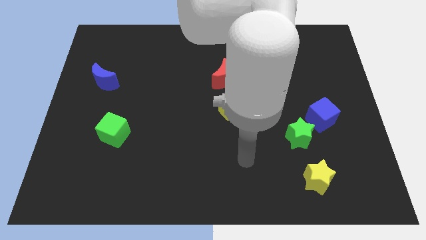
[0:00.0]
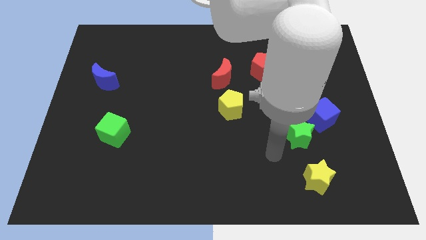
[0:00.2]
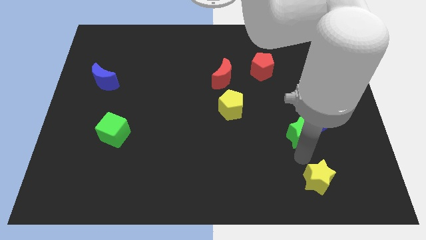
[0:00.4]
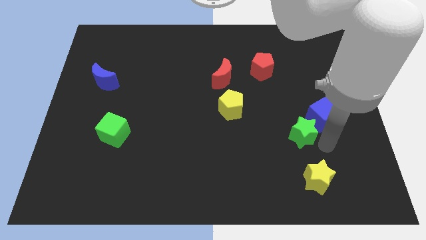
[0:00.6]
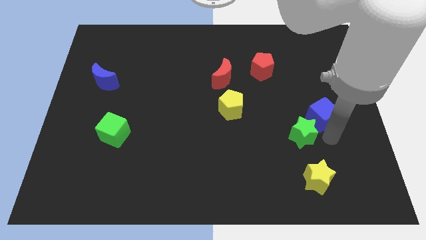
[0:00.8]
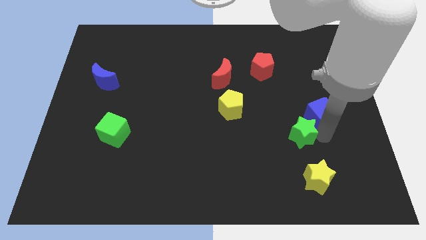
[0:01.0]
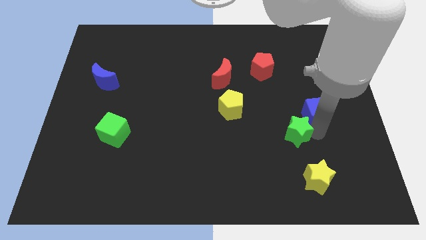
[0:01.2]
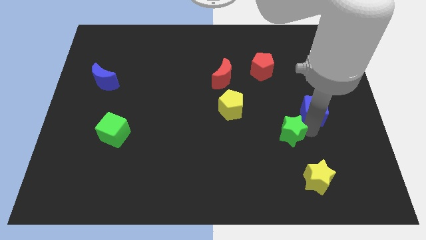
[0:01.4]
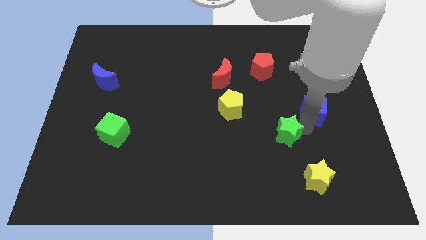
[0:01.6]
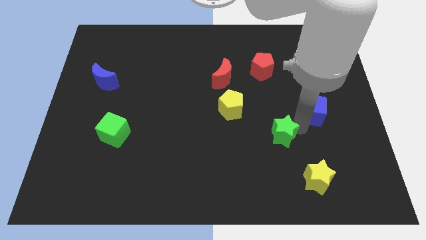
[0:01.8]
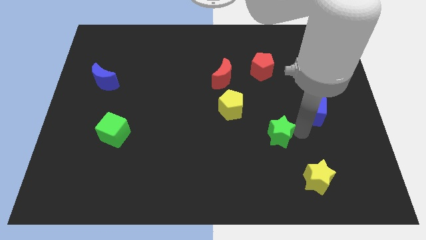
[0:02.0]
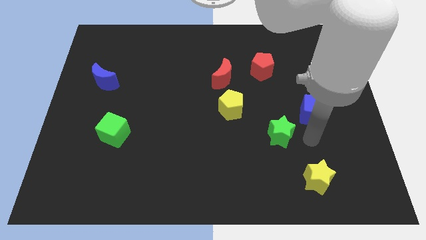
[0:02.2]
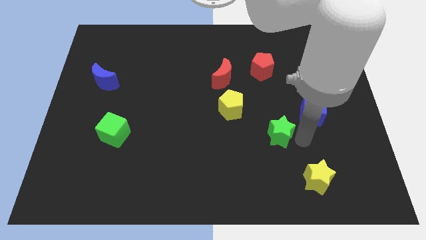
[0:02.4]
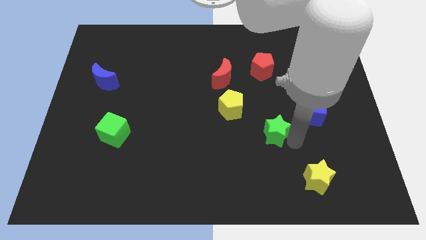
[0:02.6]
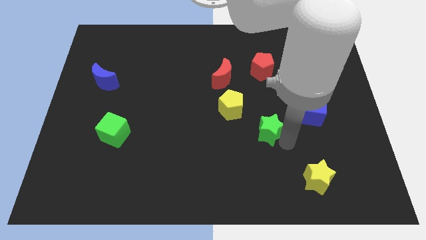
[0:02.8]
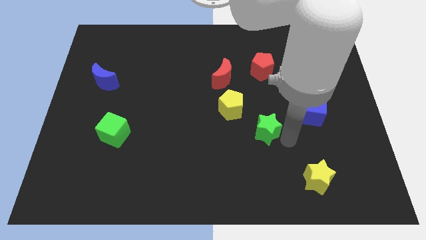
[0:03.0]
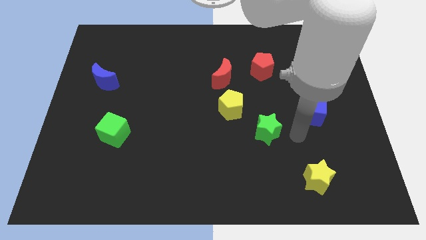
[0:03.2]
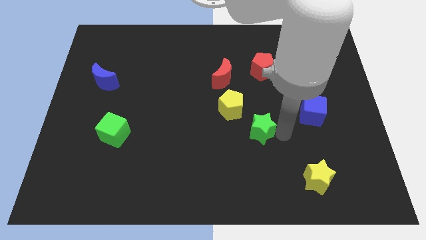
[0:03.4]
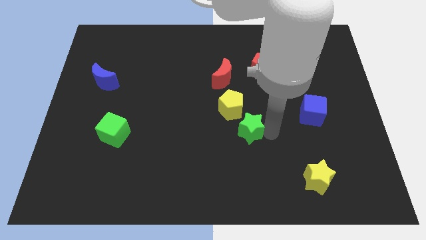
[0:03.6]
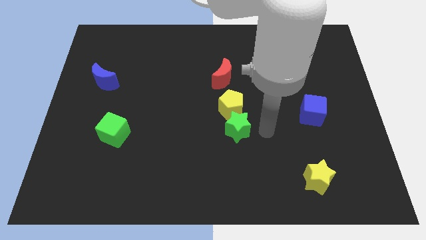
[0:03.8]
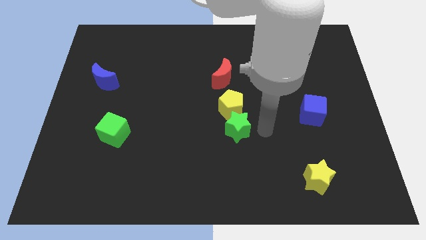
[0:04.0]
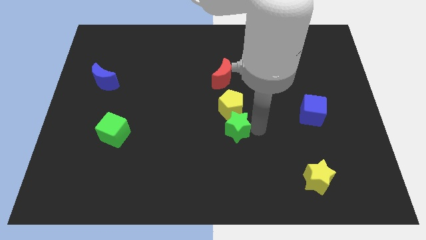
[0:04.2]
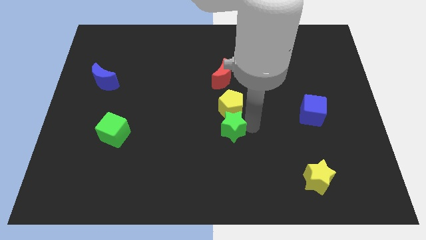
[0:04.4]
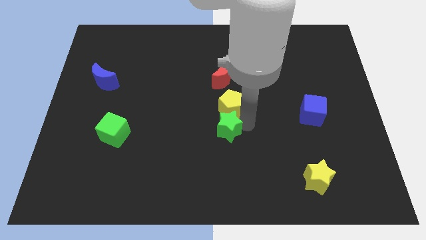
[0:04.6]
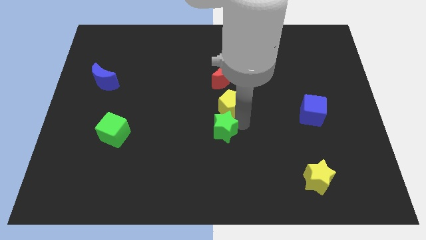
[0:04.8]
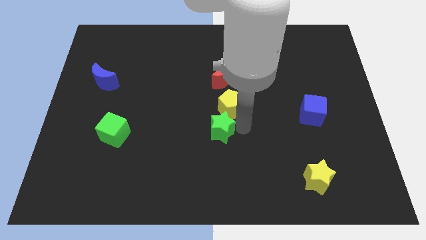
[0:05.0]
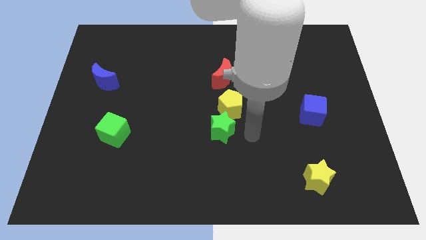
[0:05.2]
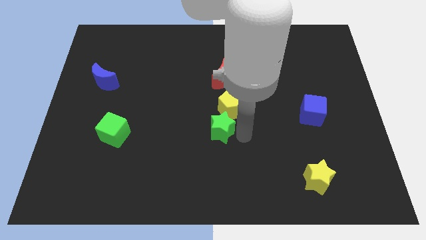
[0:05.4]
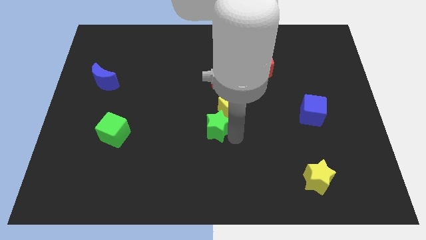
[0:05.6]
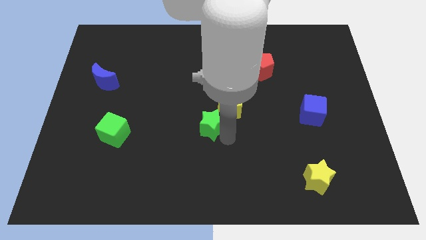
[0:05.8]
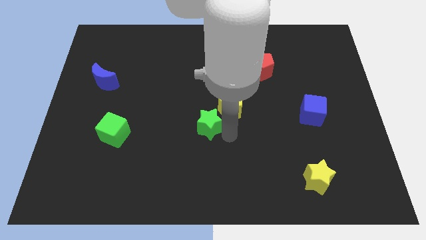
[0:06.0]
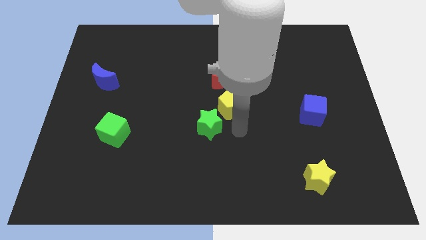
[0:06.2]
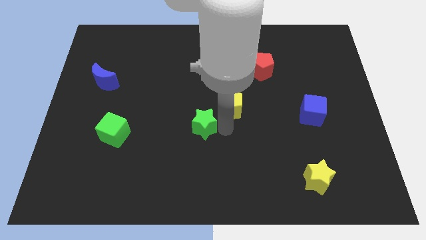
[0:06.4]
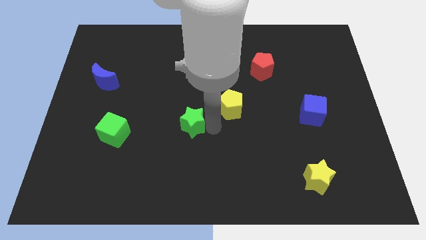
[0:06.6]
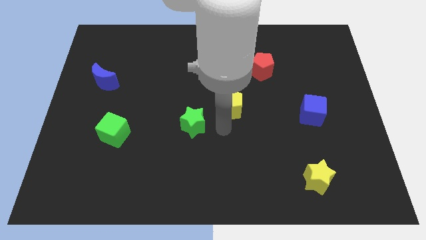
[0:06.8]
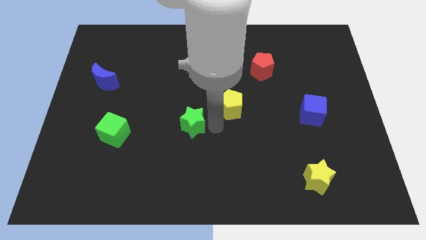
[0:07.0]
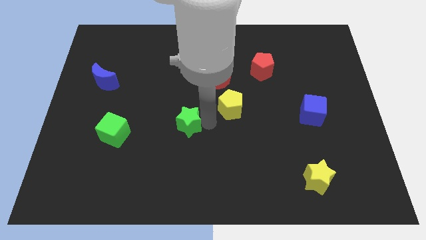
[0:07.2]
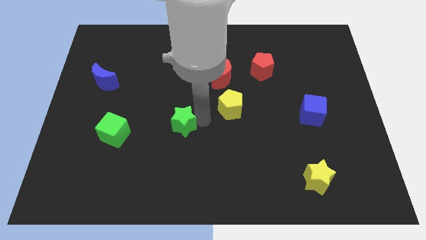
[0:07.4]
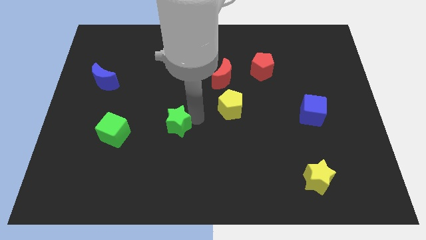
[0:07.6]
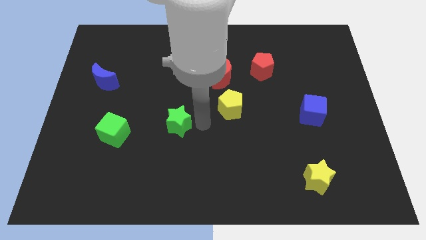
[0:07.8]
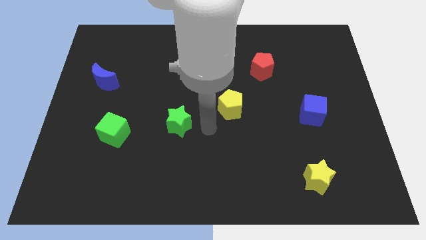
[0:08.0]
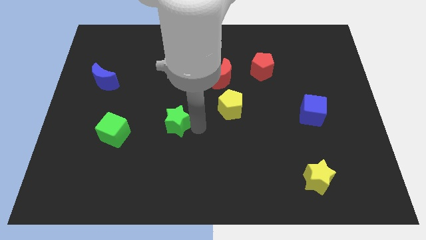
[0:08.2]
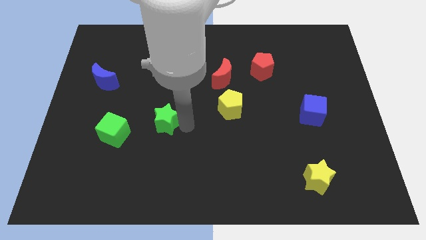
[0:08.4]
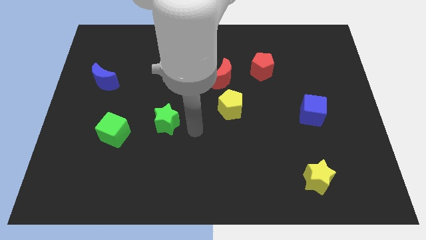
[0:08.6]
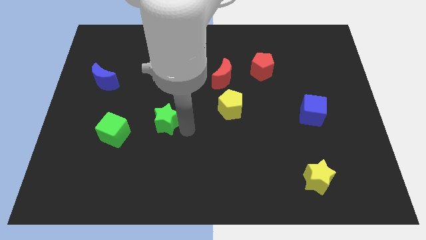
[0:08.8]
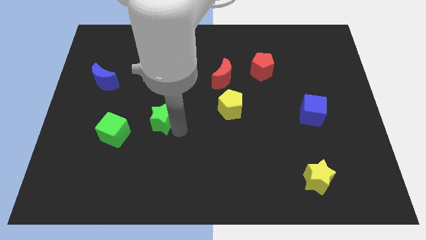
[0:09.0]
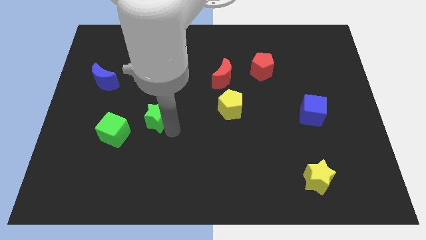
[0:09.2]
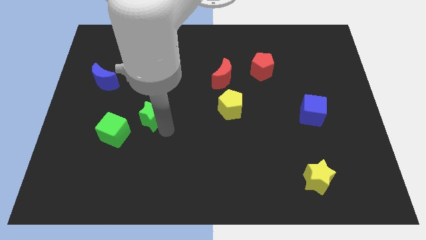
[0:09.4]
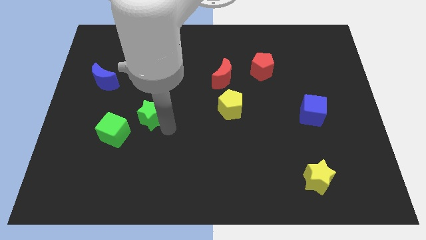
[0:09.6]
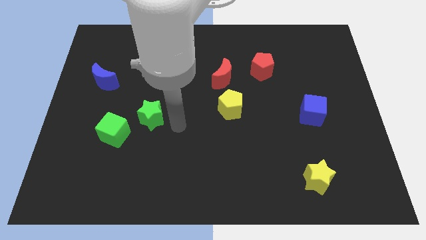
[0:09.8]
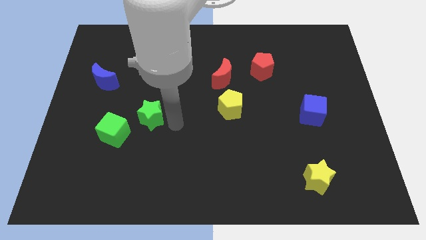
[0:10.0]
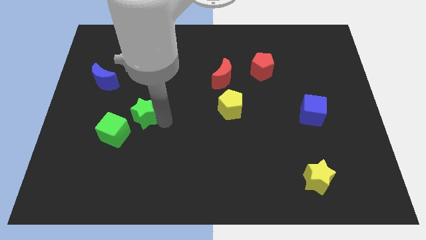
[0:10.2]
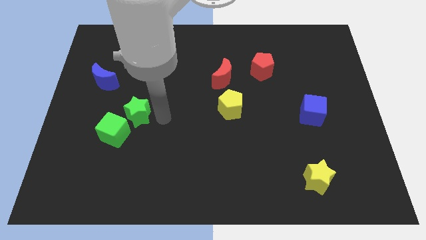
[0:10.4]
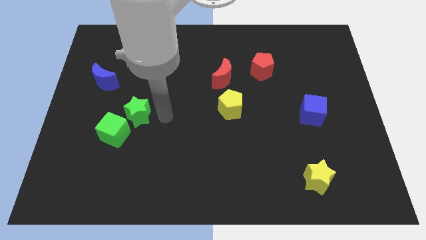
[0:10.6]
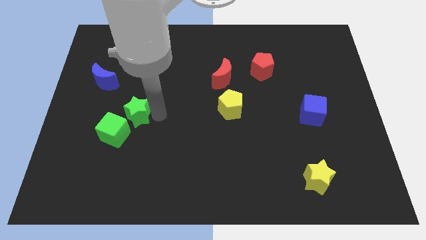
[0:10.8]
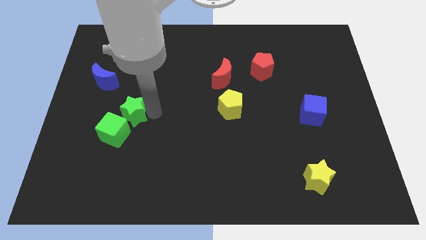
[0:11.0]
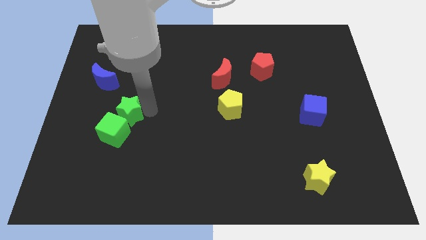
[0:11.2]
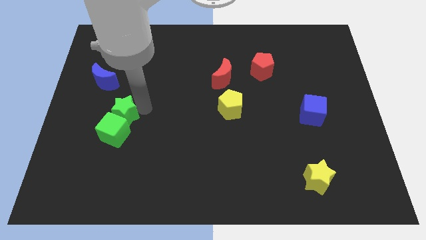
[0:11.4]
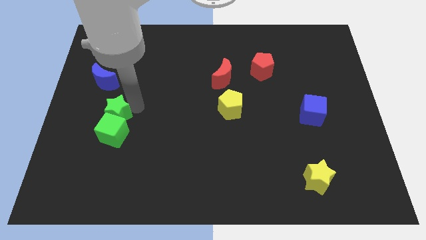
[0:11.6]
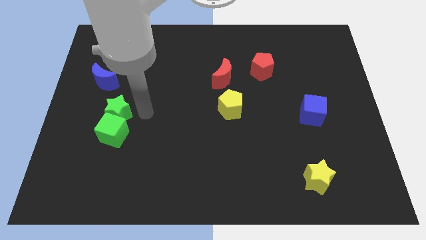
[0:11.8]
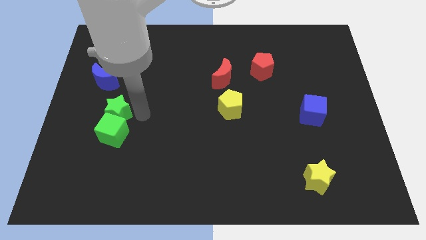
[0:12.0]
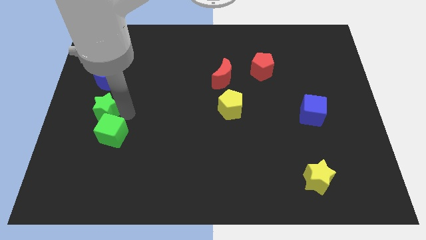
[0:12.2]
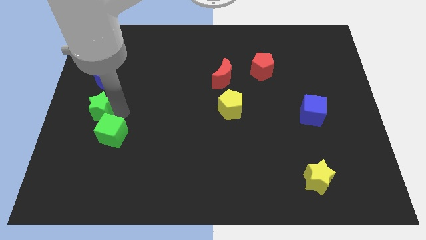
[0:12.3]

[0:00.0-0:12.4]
slide the green star to the left side of the board
